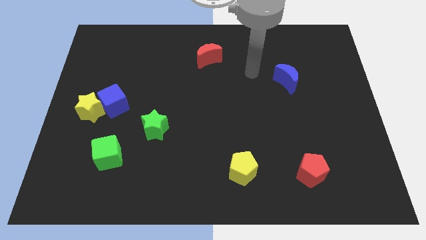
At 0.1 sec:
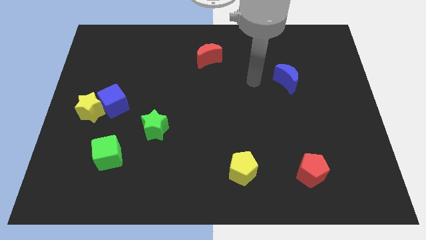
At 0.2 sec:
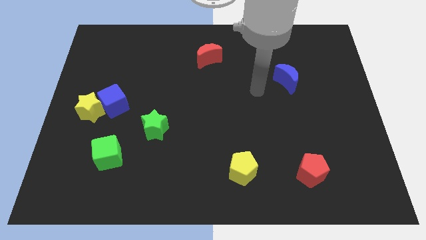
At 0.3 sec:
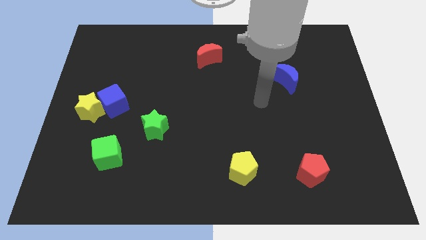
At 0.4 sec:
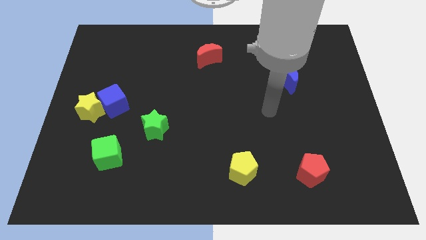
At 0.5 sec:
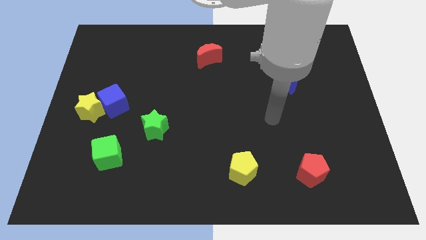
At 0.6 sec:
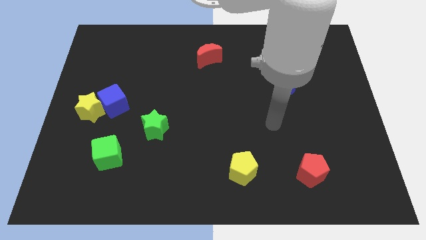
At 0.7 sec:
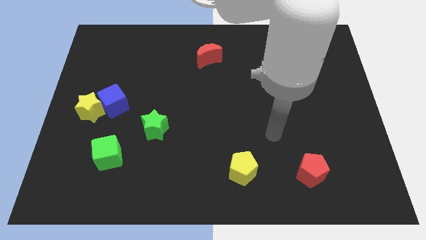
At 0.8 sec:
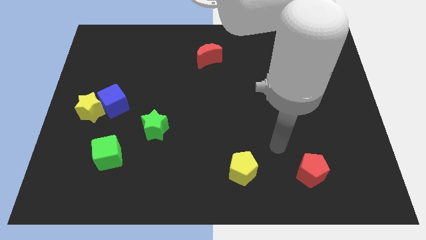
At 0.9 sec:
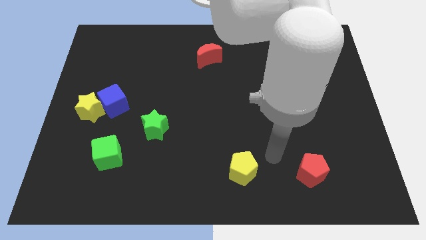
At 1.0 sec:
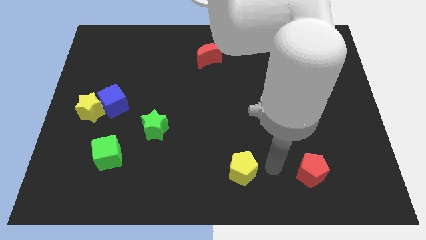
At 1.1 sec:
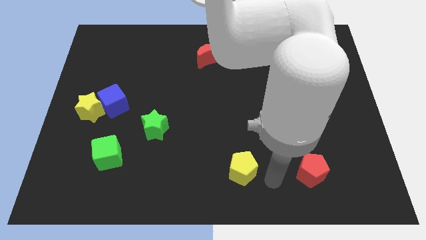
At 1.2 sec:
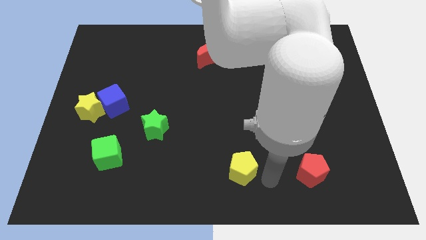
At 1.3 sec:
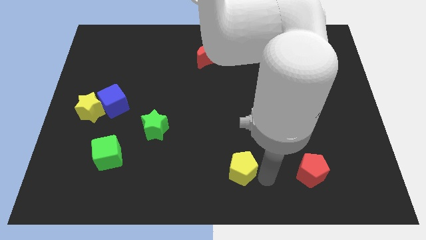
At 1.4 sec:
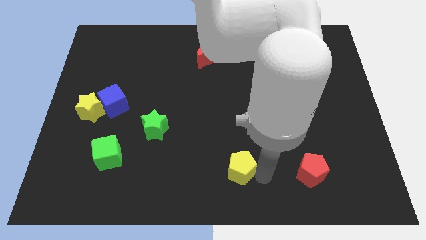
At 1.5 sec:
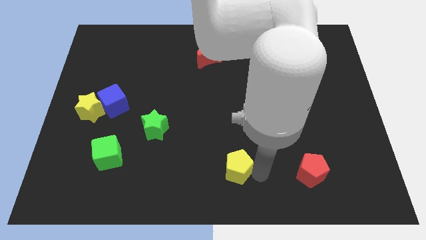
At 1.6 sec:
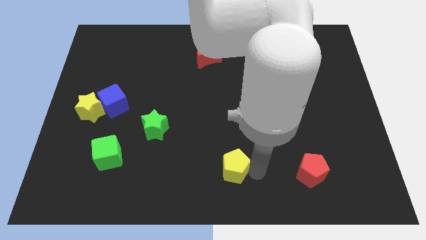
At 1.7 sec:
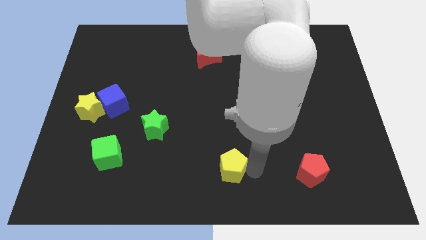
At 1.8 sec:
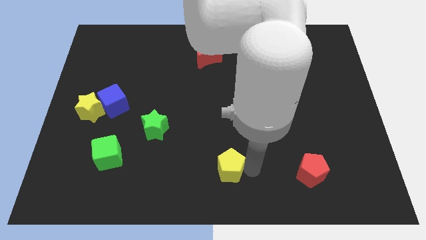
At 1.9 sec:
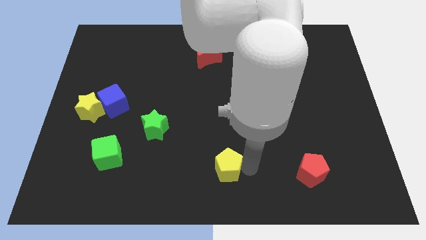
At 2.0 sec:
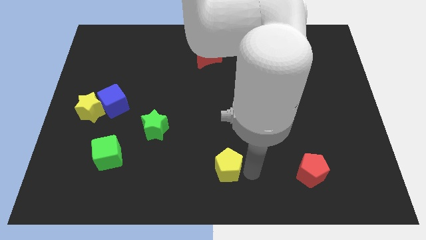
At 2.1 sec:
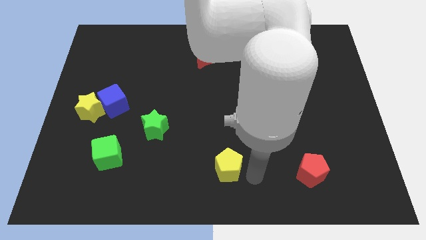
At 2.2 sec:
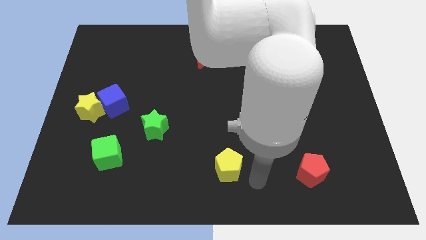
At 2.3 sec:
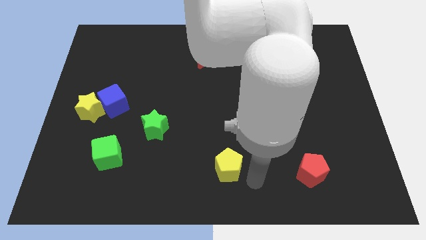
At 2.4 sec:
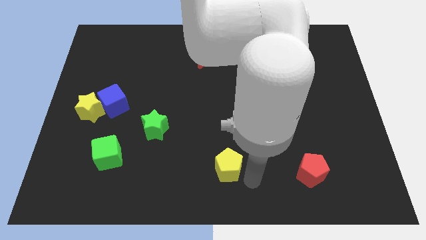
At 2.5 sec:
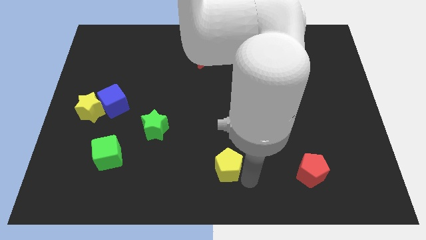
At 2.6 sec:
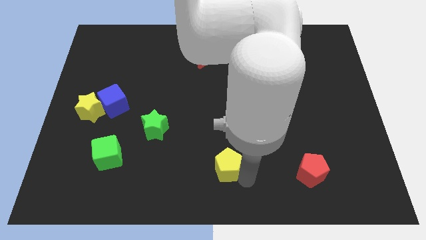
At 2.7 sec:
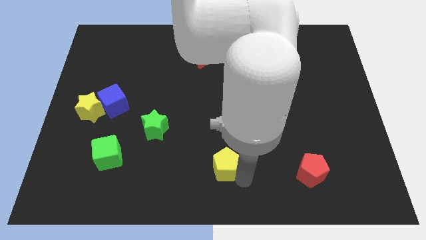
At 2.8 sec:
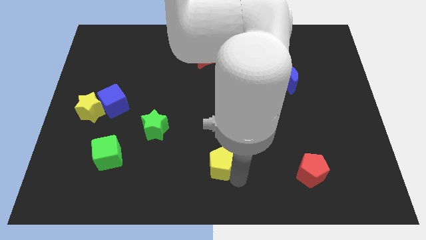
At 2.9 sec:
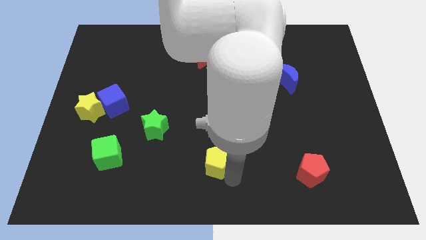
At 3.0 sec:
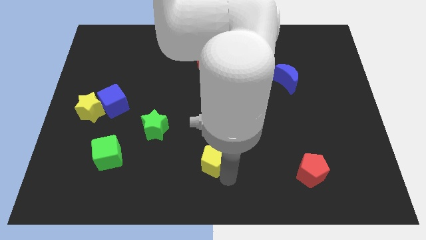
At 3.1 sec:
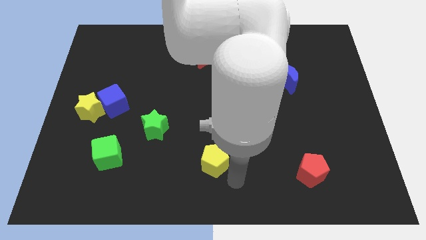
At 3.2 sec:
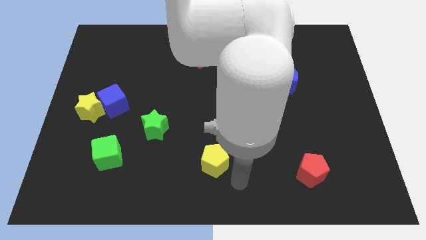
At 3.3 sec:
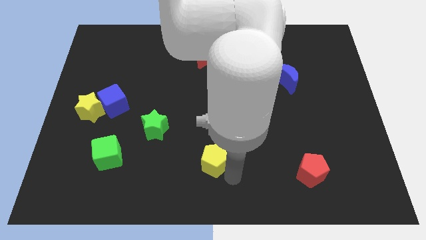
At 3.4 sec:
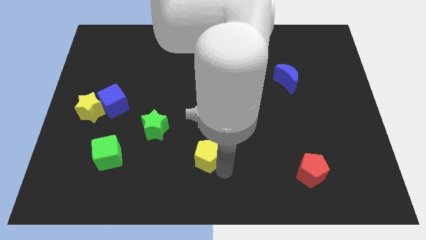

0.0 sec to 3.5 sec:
move the yellow pentagon slightly diagonally upwards and to the left

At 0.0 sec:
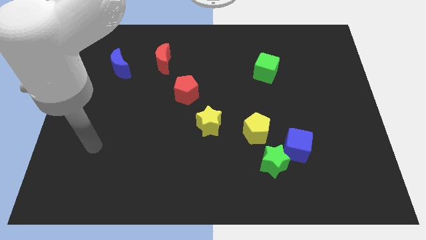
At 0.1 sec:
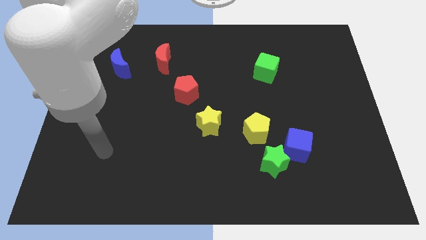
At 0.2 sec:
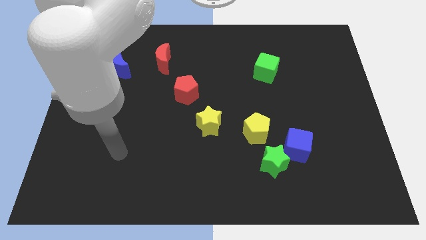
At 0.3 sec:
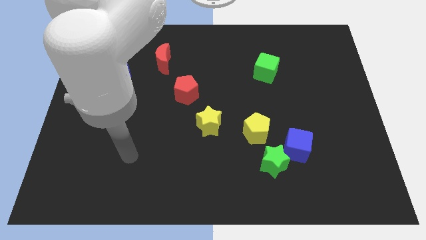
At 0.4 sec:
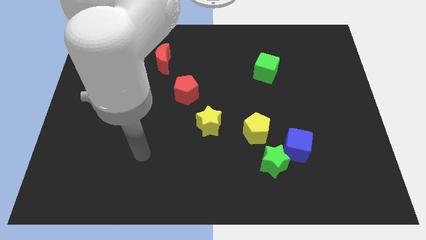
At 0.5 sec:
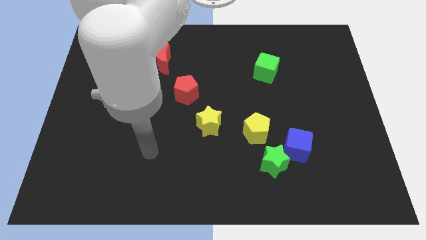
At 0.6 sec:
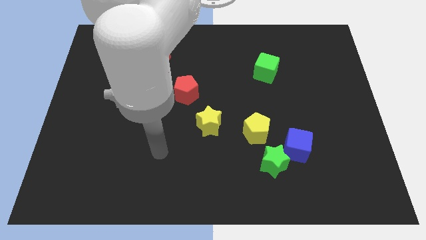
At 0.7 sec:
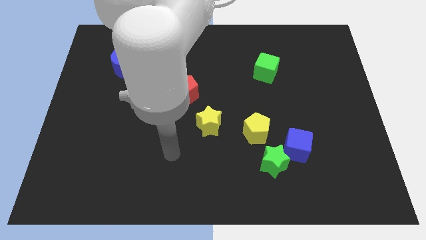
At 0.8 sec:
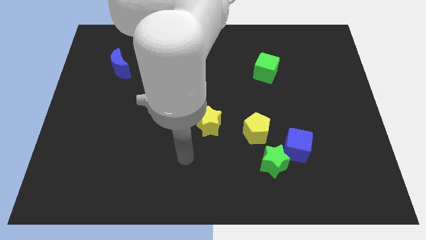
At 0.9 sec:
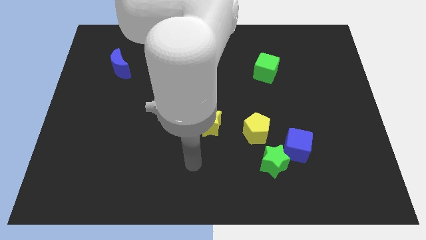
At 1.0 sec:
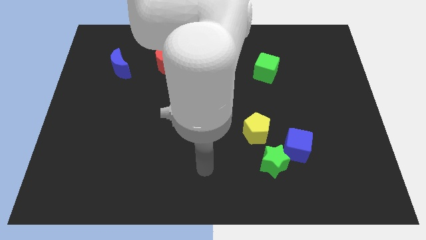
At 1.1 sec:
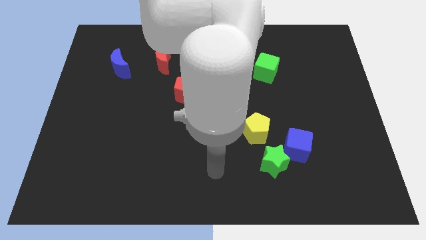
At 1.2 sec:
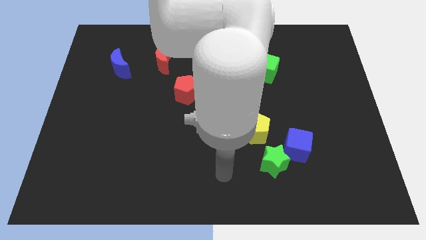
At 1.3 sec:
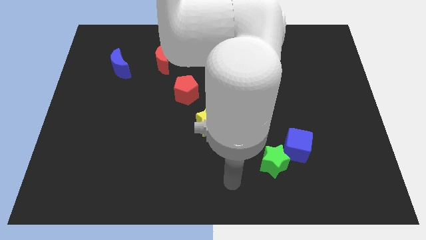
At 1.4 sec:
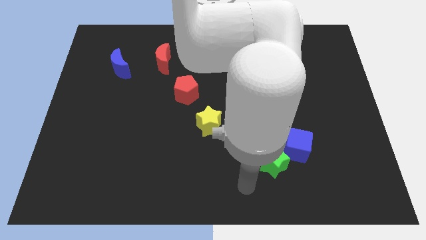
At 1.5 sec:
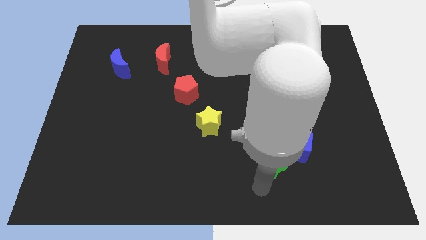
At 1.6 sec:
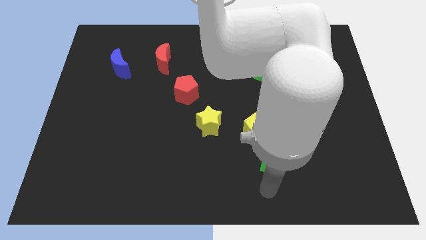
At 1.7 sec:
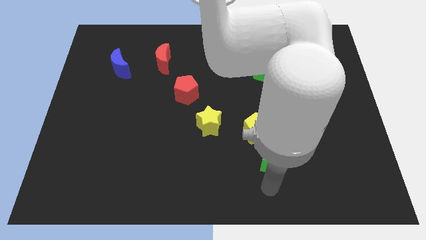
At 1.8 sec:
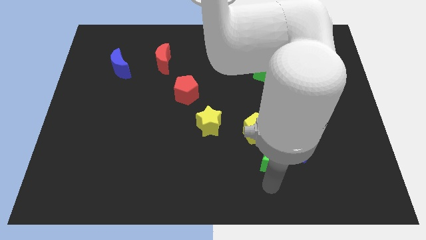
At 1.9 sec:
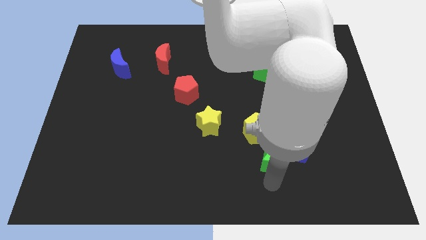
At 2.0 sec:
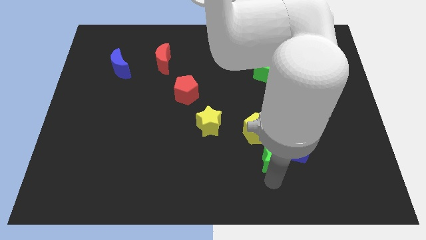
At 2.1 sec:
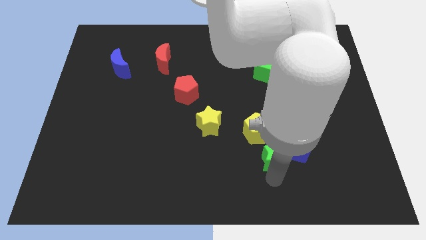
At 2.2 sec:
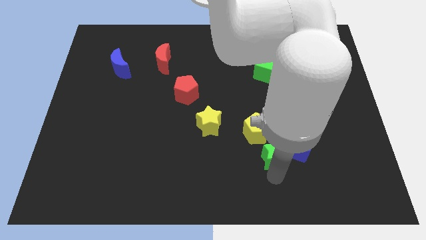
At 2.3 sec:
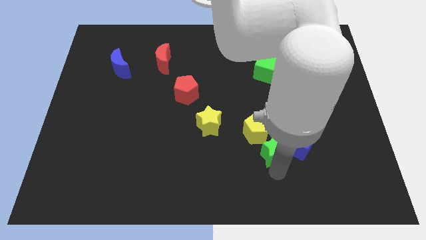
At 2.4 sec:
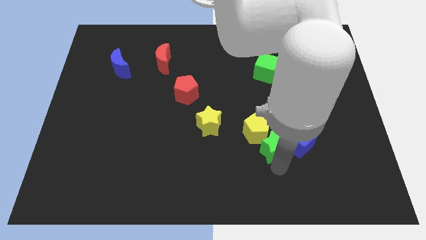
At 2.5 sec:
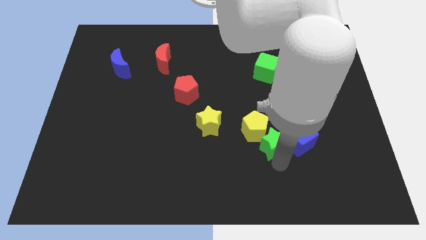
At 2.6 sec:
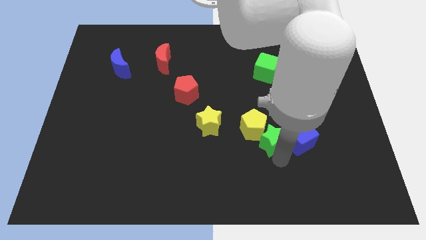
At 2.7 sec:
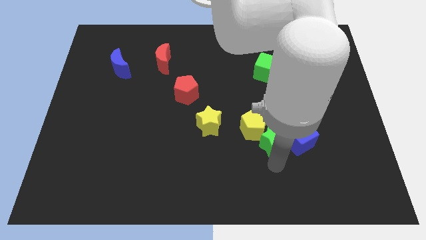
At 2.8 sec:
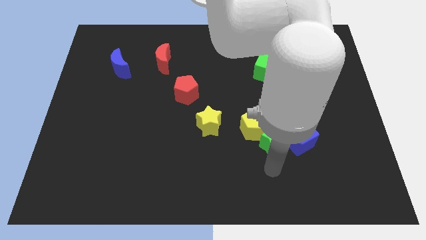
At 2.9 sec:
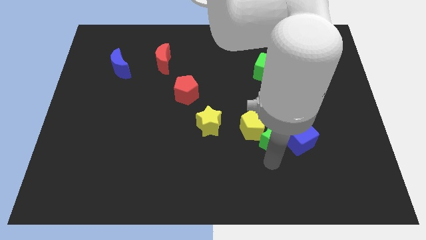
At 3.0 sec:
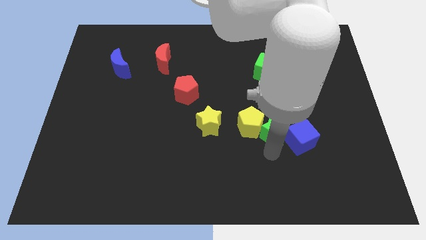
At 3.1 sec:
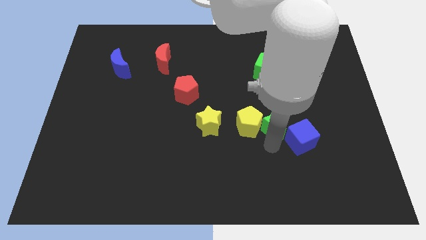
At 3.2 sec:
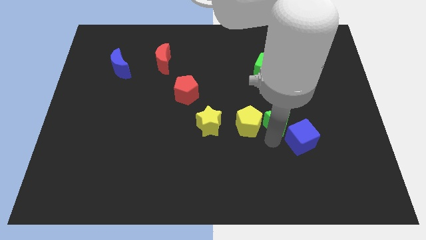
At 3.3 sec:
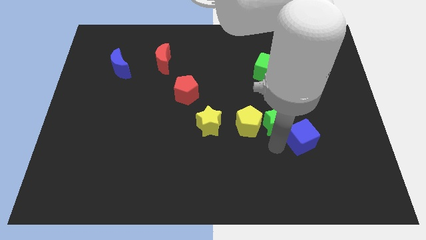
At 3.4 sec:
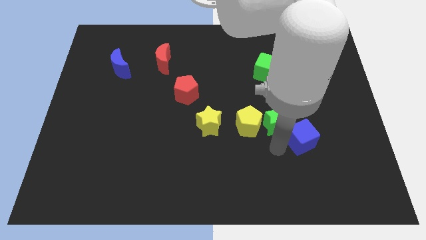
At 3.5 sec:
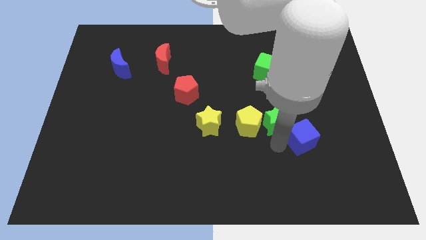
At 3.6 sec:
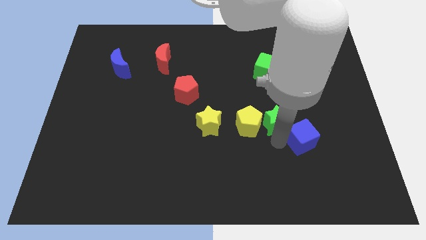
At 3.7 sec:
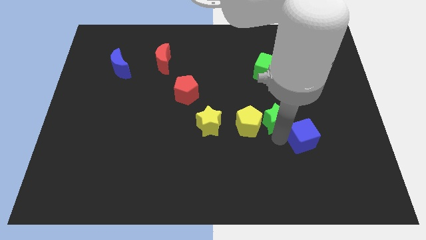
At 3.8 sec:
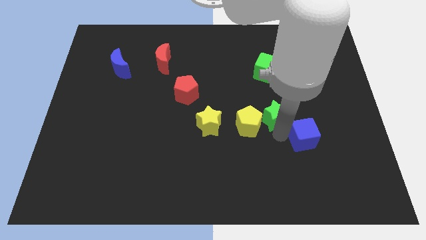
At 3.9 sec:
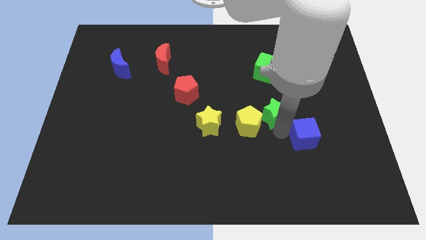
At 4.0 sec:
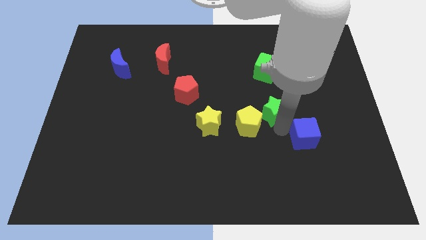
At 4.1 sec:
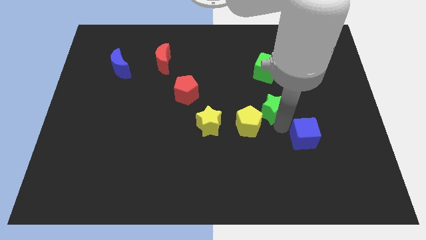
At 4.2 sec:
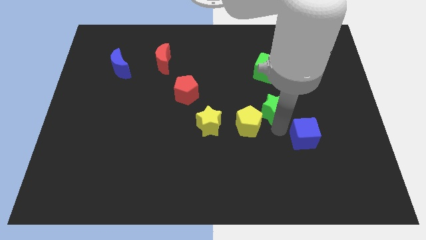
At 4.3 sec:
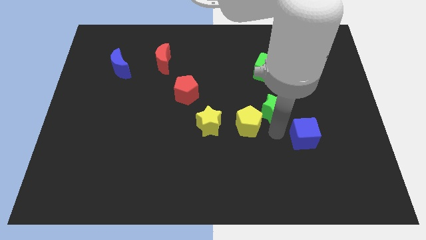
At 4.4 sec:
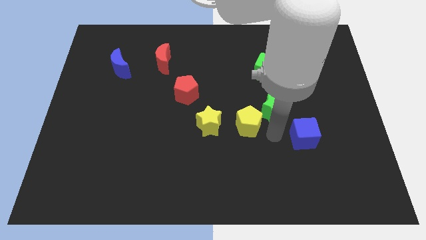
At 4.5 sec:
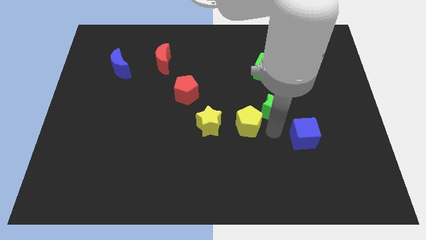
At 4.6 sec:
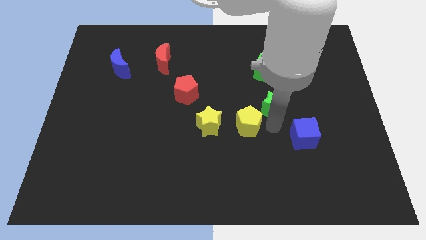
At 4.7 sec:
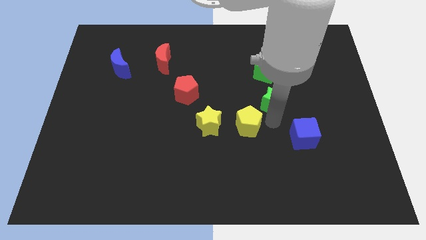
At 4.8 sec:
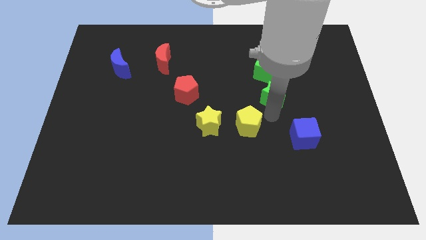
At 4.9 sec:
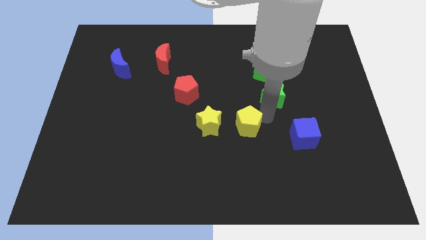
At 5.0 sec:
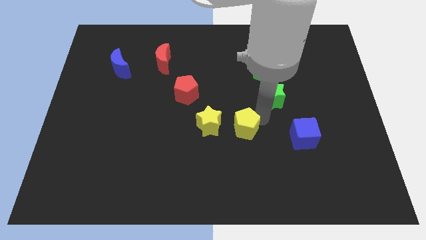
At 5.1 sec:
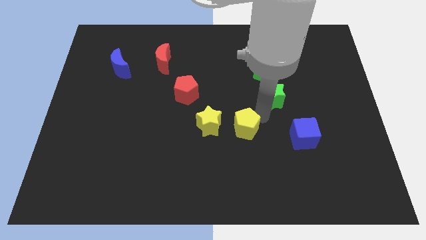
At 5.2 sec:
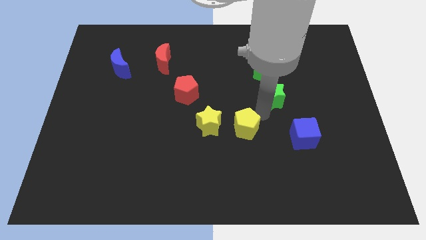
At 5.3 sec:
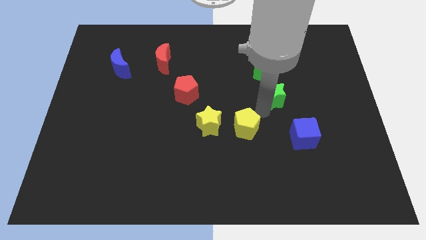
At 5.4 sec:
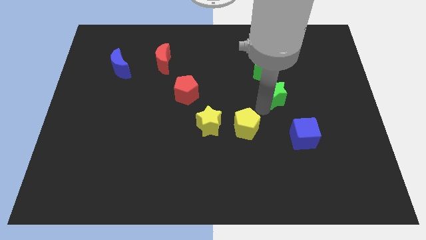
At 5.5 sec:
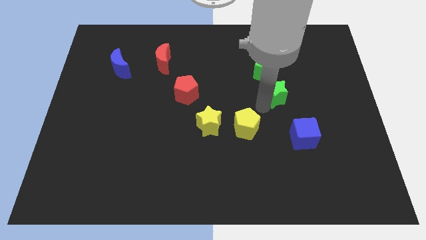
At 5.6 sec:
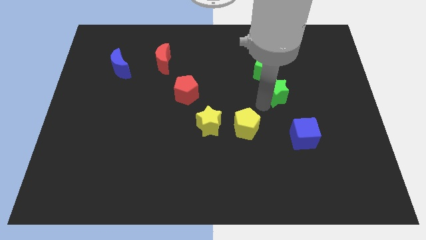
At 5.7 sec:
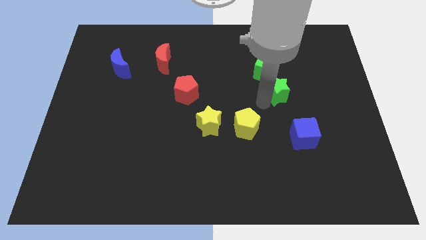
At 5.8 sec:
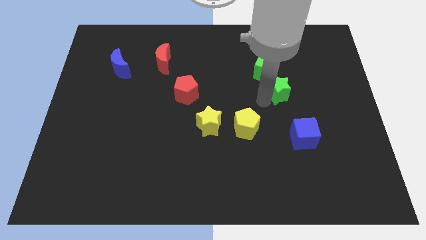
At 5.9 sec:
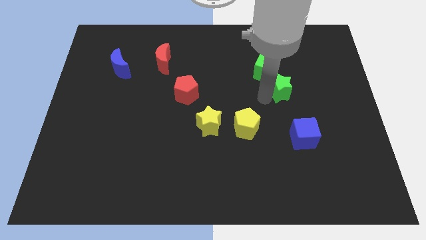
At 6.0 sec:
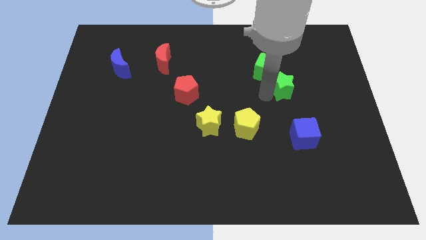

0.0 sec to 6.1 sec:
slide the green star up
